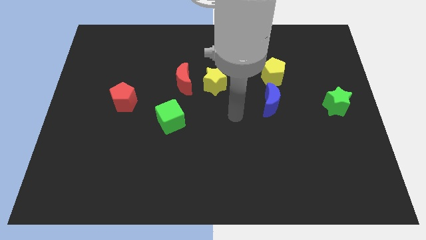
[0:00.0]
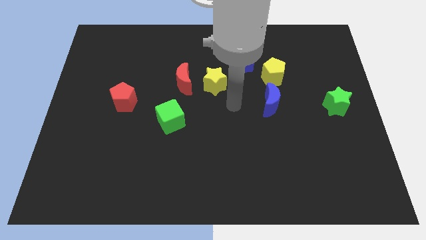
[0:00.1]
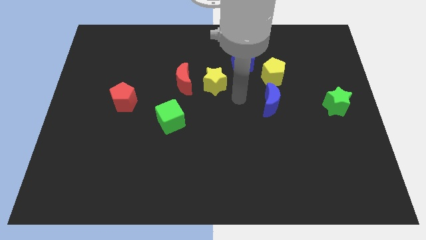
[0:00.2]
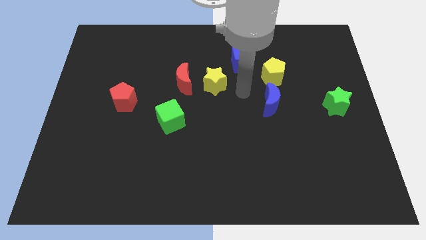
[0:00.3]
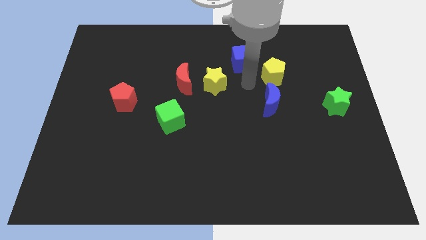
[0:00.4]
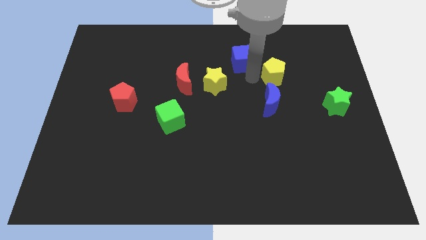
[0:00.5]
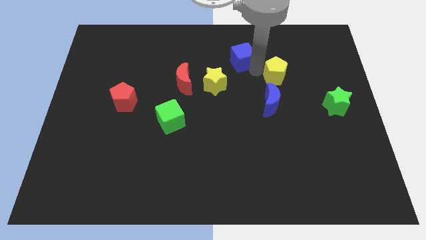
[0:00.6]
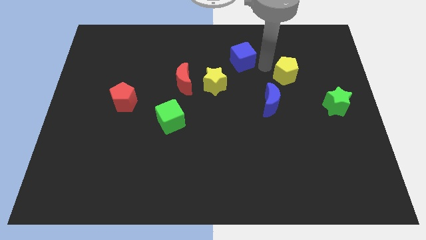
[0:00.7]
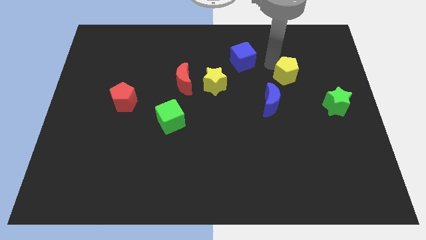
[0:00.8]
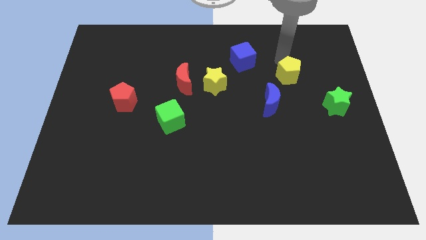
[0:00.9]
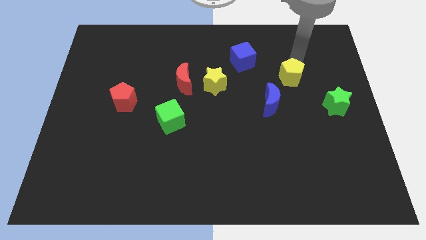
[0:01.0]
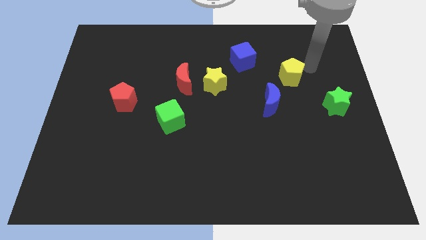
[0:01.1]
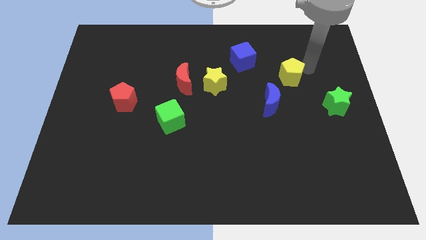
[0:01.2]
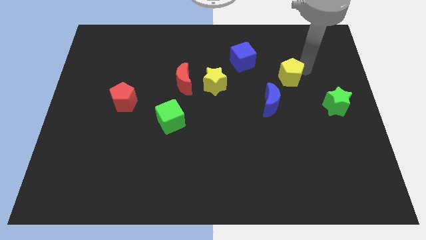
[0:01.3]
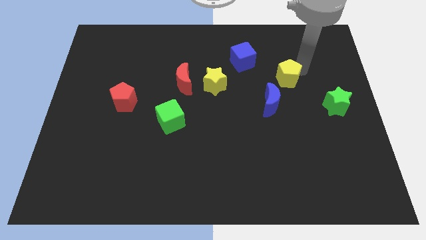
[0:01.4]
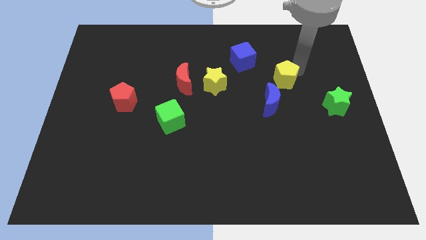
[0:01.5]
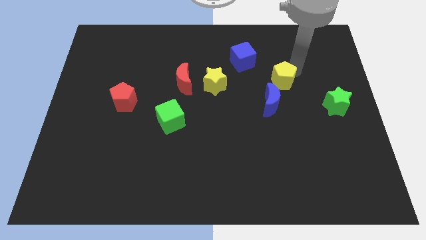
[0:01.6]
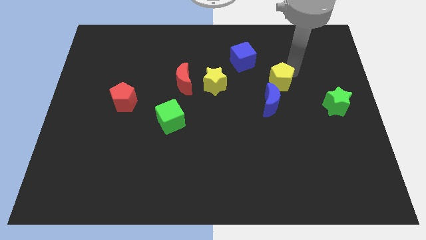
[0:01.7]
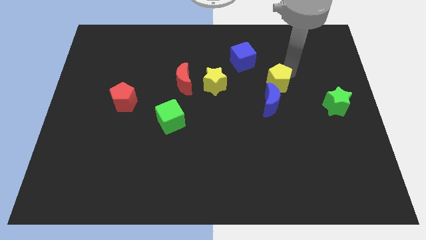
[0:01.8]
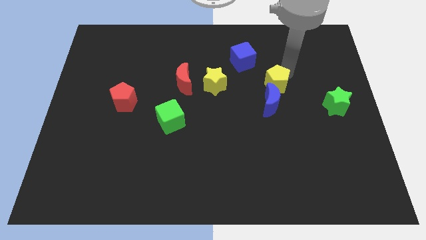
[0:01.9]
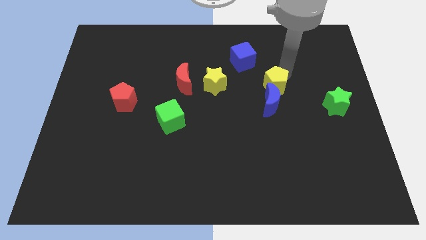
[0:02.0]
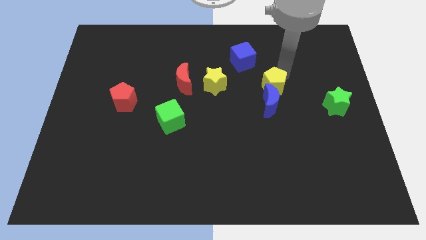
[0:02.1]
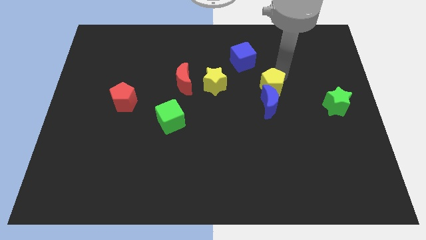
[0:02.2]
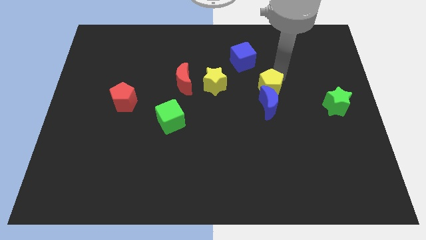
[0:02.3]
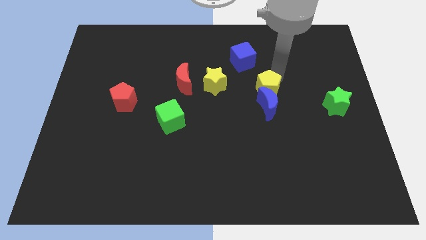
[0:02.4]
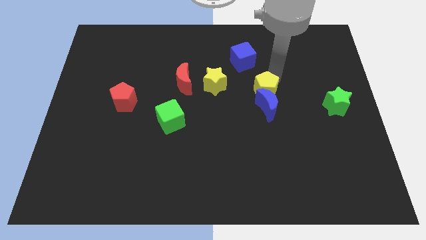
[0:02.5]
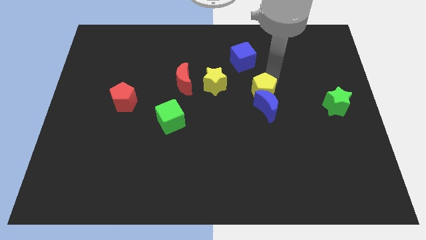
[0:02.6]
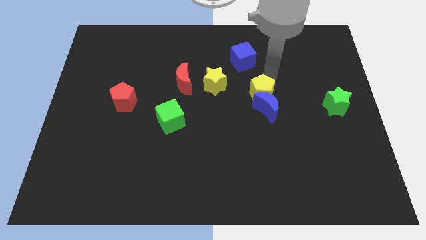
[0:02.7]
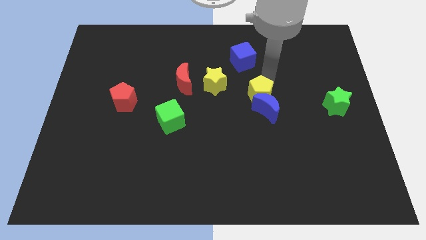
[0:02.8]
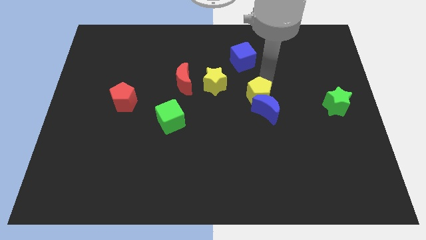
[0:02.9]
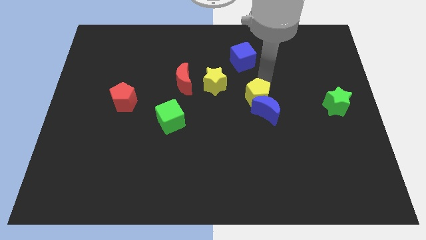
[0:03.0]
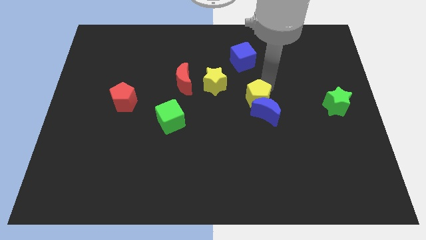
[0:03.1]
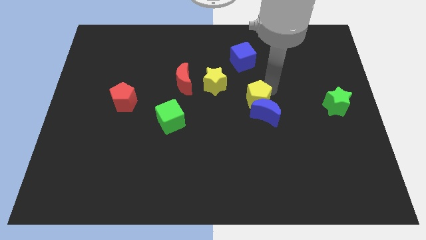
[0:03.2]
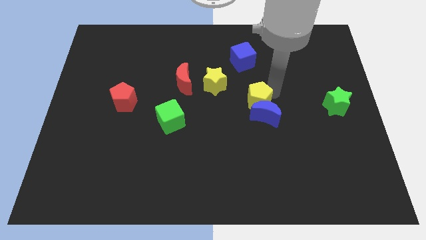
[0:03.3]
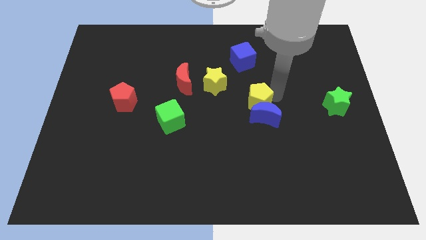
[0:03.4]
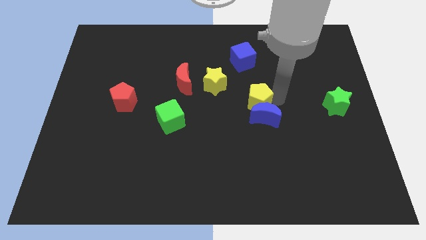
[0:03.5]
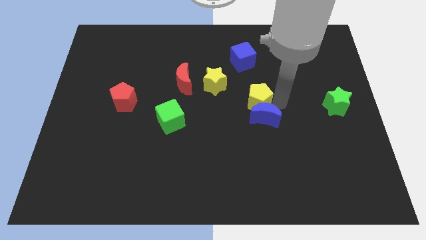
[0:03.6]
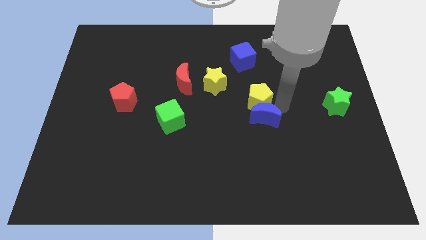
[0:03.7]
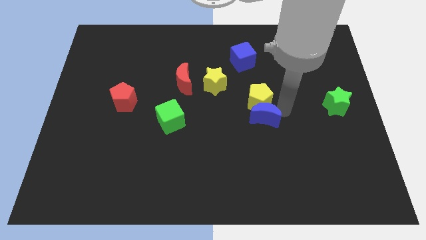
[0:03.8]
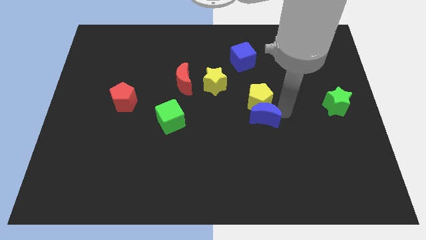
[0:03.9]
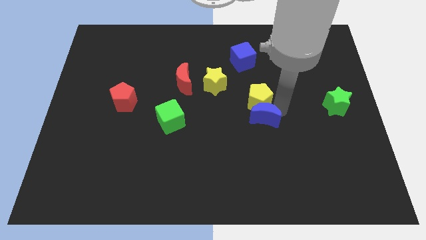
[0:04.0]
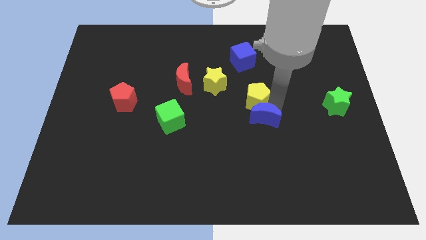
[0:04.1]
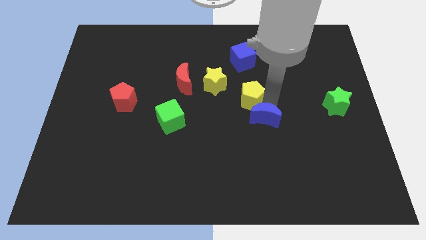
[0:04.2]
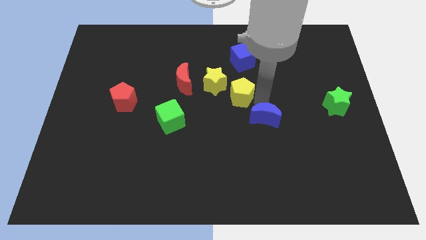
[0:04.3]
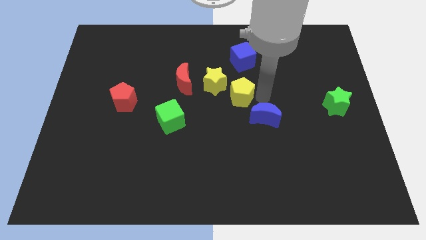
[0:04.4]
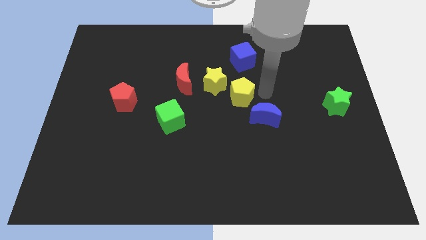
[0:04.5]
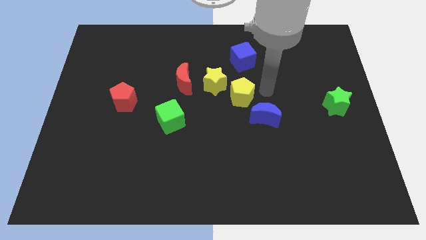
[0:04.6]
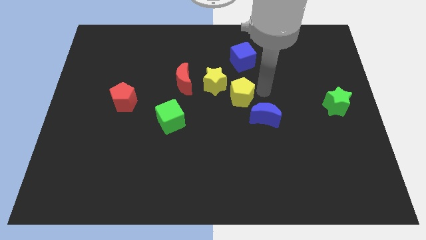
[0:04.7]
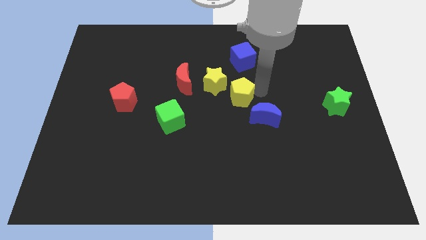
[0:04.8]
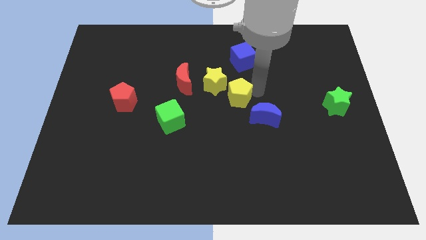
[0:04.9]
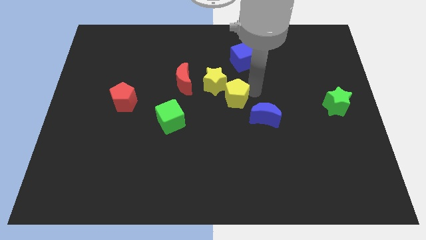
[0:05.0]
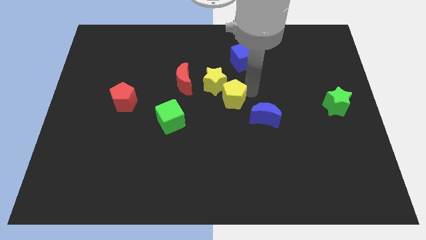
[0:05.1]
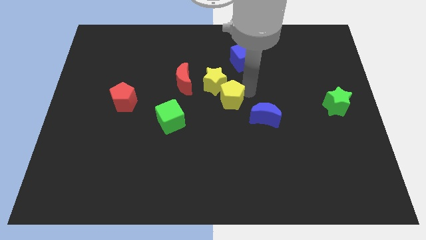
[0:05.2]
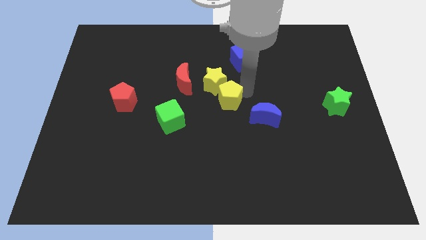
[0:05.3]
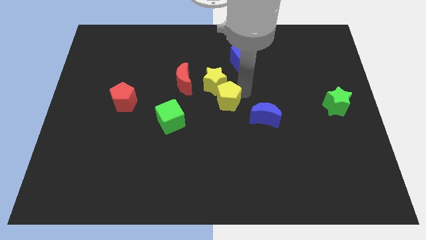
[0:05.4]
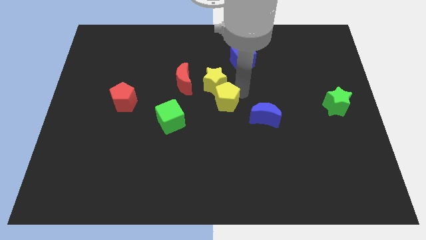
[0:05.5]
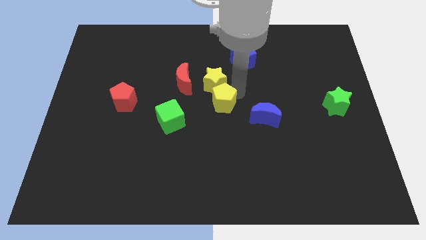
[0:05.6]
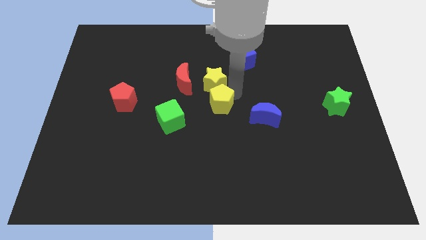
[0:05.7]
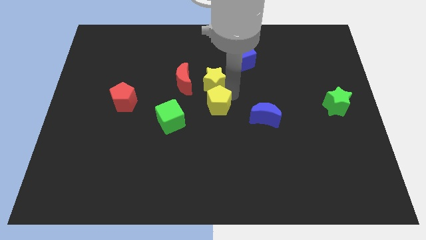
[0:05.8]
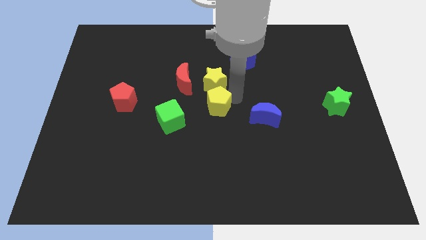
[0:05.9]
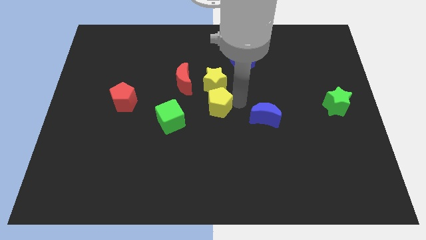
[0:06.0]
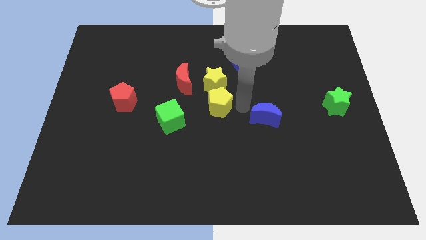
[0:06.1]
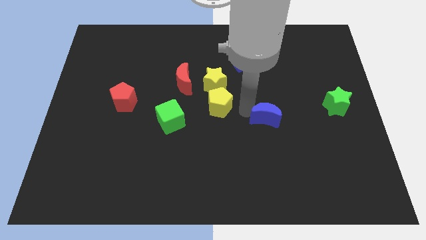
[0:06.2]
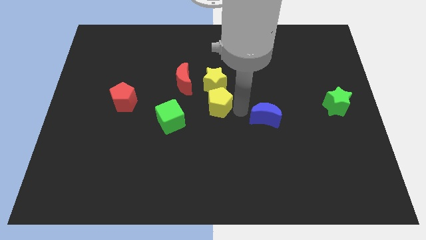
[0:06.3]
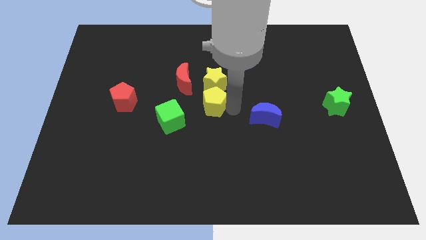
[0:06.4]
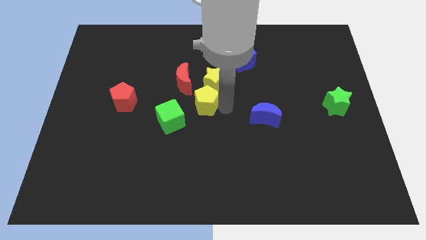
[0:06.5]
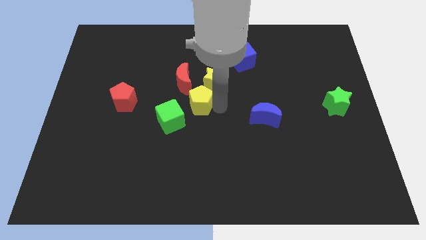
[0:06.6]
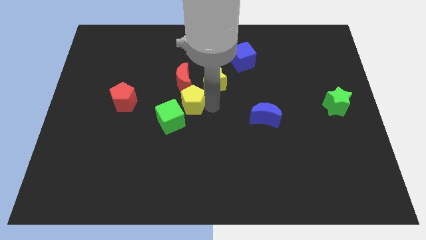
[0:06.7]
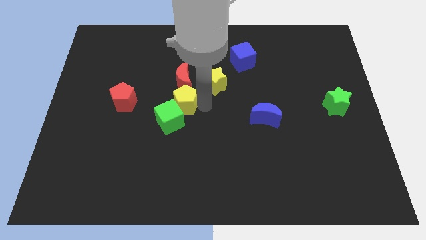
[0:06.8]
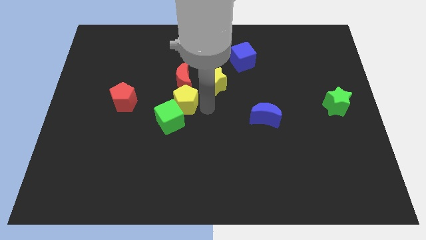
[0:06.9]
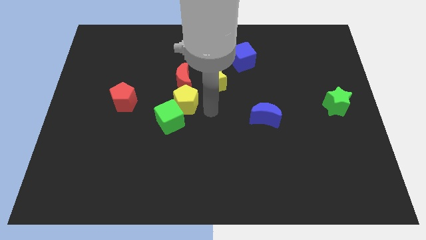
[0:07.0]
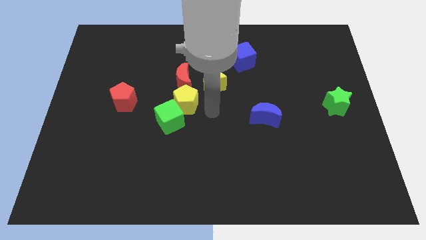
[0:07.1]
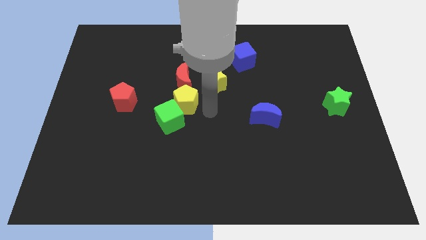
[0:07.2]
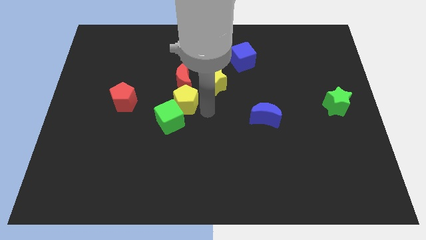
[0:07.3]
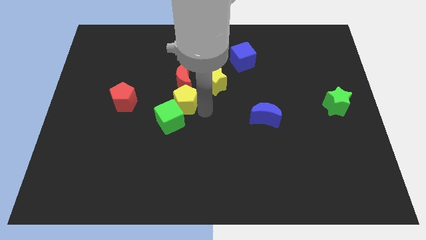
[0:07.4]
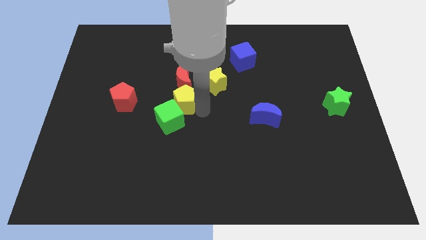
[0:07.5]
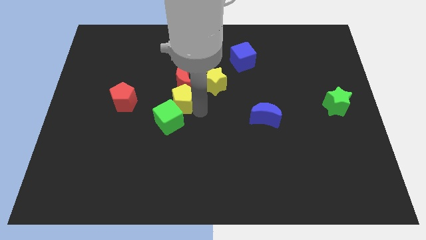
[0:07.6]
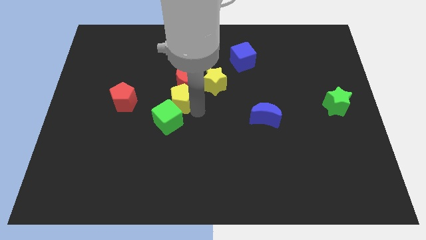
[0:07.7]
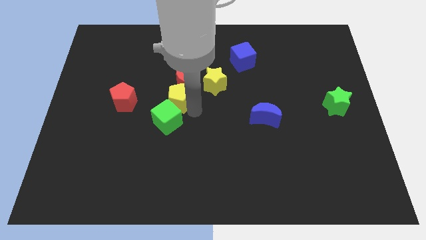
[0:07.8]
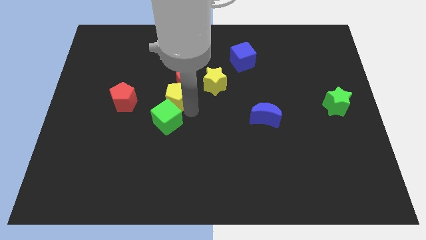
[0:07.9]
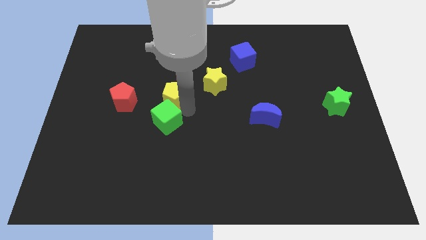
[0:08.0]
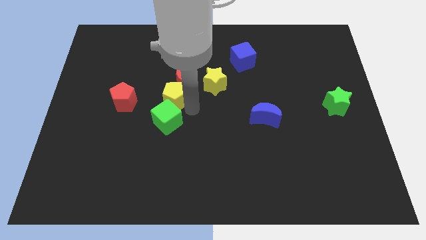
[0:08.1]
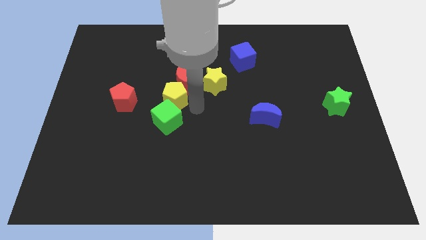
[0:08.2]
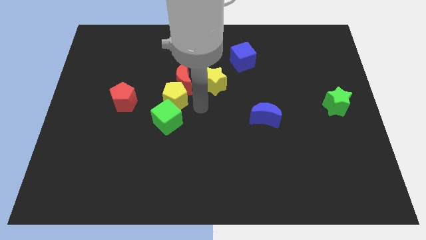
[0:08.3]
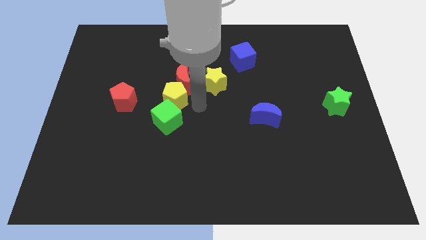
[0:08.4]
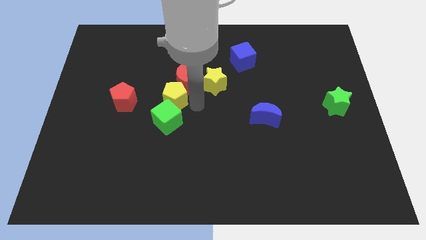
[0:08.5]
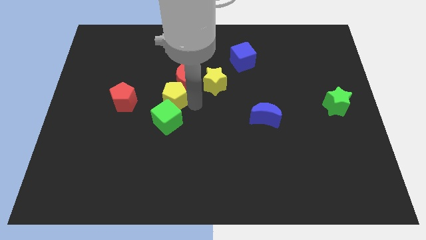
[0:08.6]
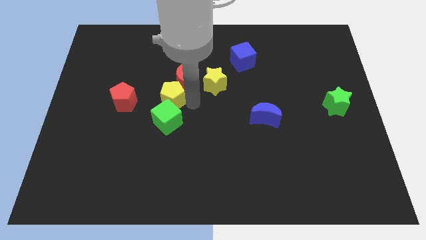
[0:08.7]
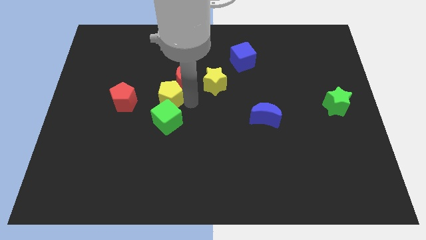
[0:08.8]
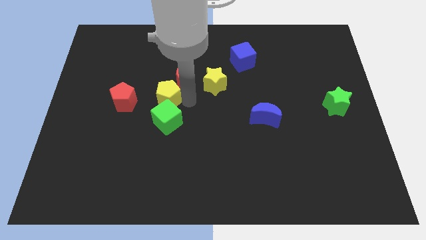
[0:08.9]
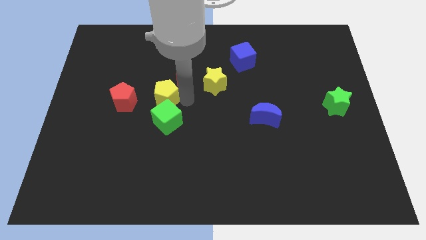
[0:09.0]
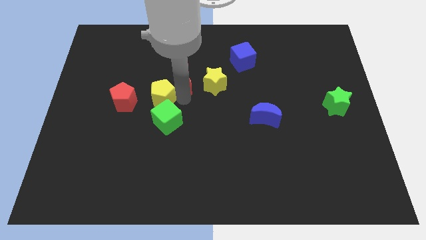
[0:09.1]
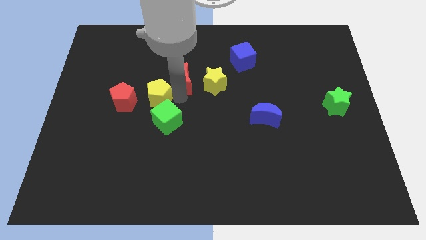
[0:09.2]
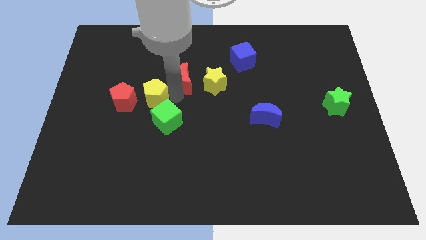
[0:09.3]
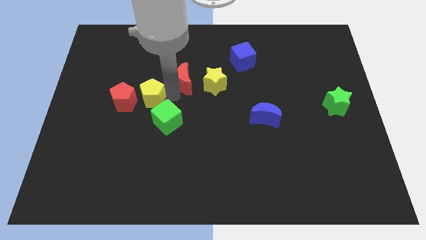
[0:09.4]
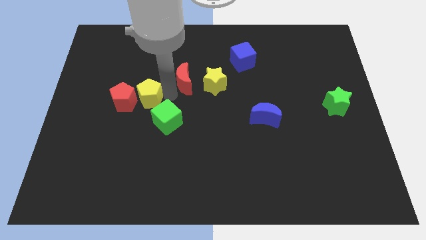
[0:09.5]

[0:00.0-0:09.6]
push the yellow pentagon towards the red pentagon
